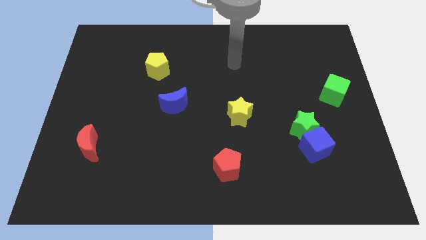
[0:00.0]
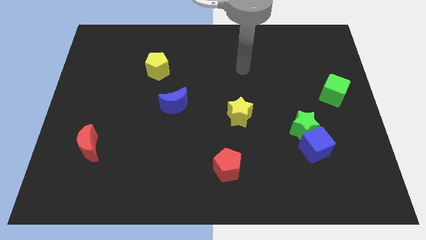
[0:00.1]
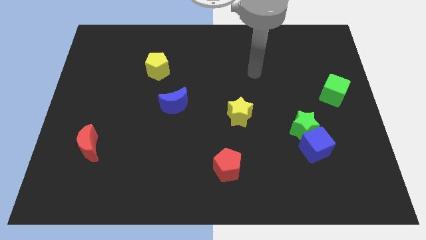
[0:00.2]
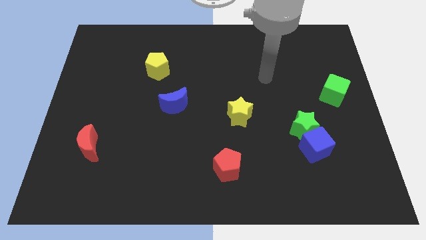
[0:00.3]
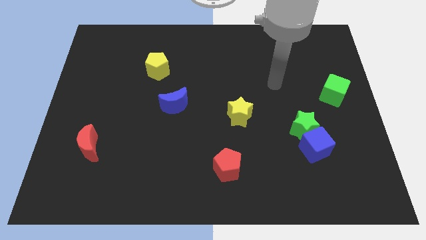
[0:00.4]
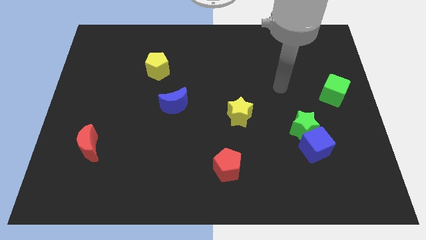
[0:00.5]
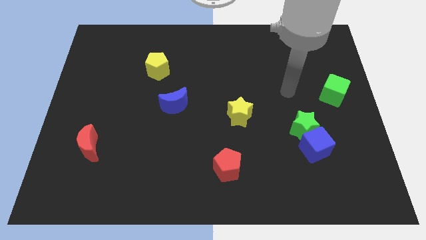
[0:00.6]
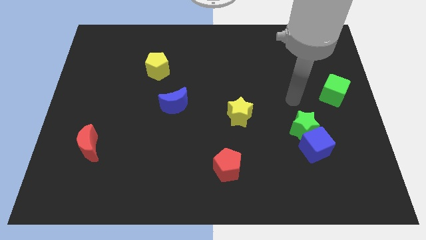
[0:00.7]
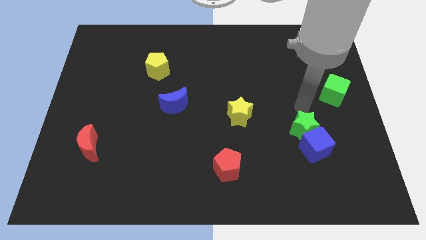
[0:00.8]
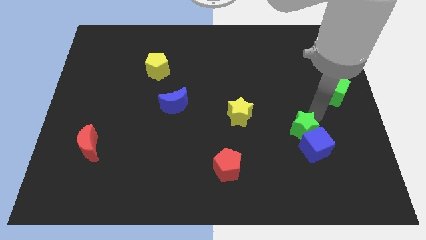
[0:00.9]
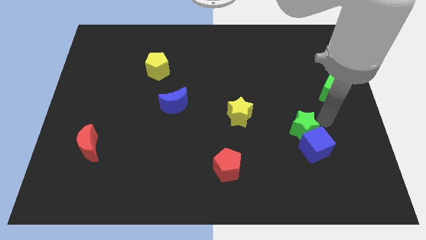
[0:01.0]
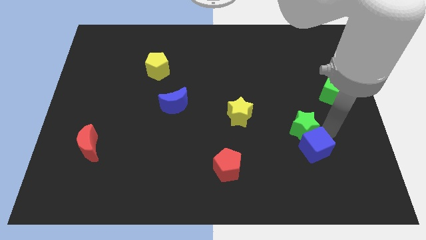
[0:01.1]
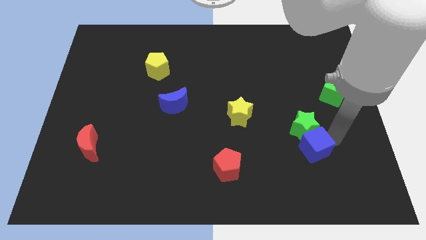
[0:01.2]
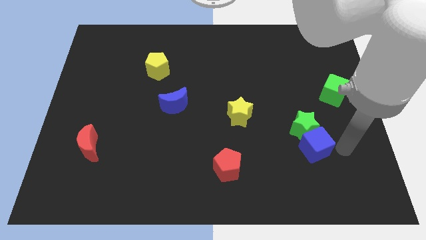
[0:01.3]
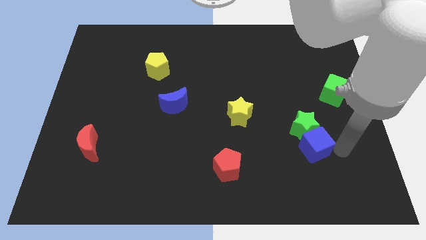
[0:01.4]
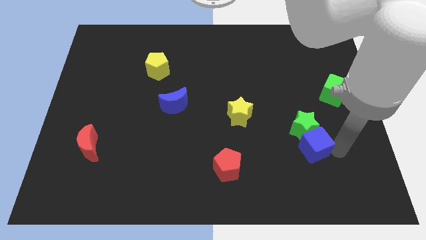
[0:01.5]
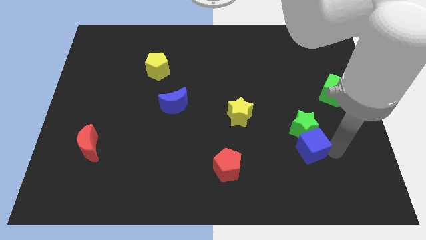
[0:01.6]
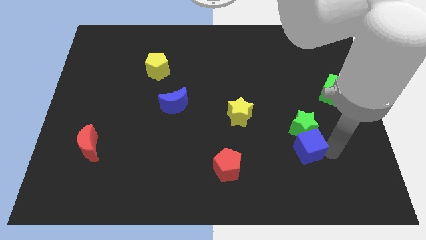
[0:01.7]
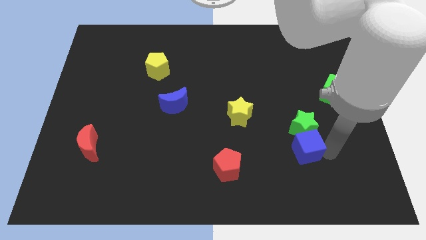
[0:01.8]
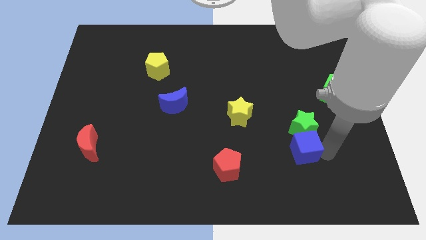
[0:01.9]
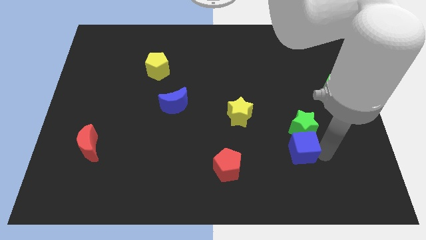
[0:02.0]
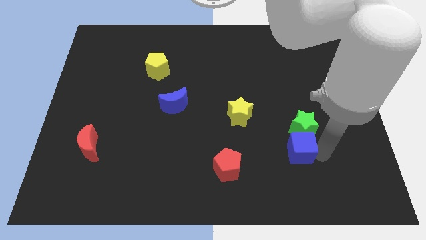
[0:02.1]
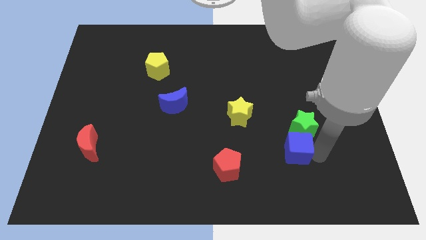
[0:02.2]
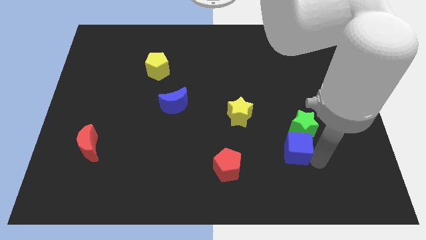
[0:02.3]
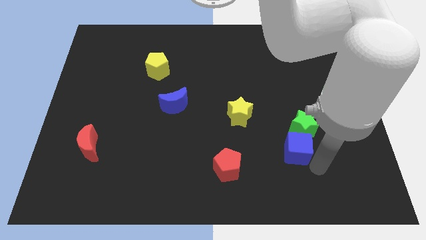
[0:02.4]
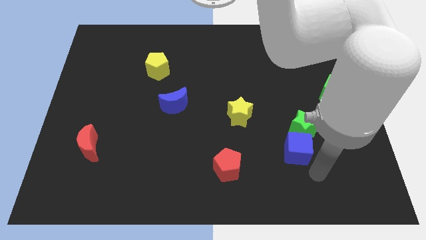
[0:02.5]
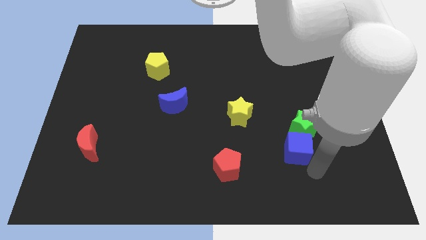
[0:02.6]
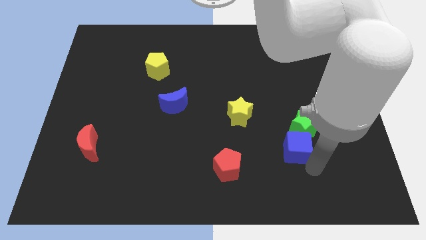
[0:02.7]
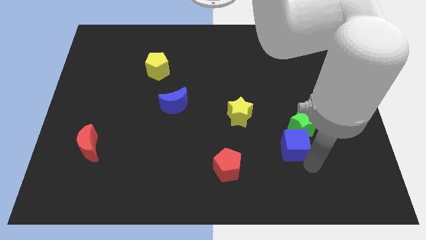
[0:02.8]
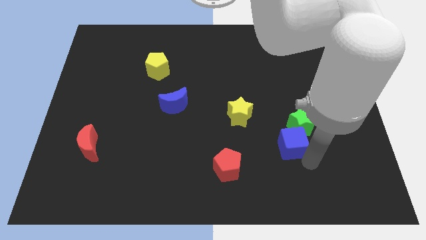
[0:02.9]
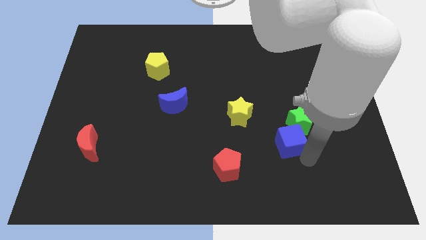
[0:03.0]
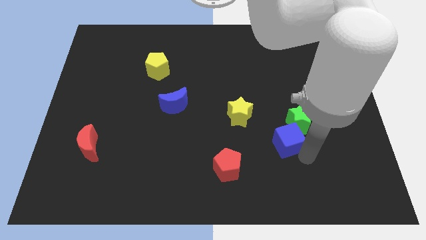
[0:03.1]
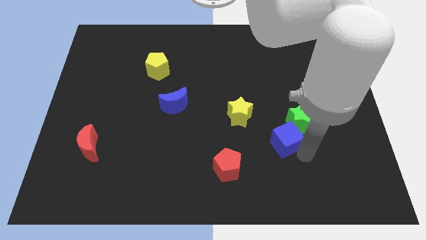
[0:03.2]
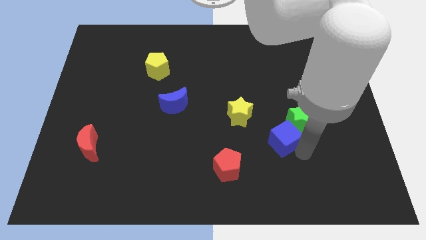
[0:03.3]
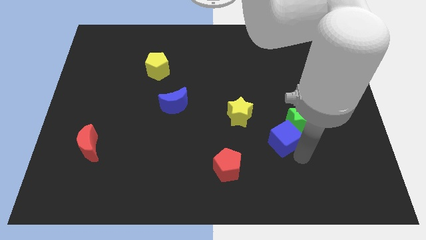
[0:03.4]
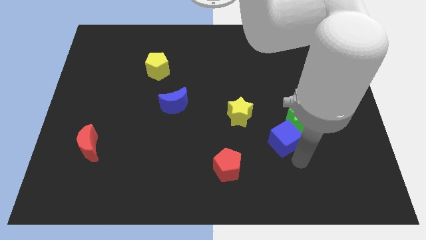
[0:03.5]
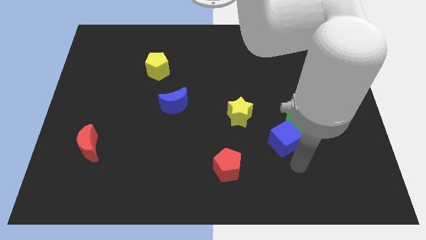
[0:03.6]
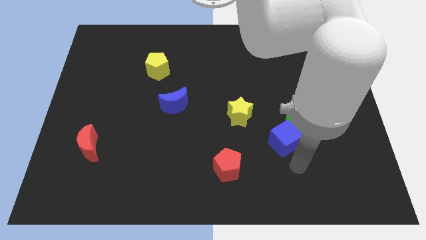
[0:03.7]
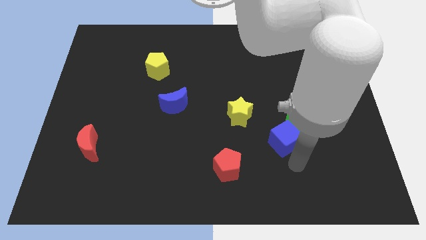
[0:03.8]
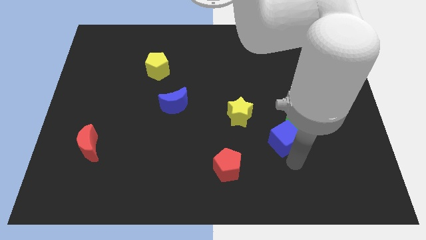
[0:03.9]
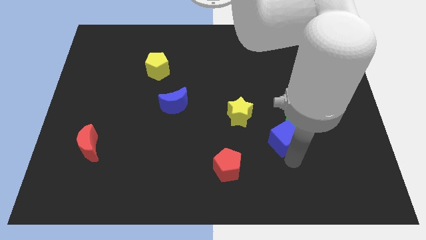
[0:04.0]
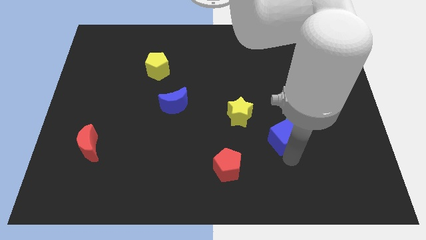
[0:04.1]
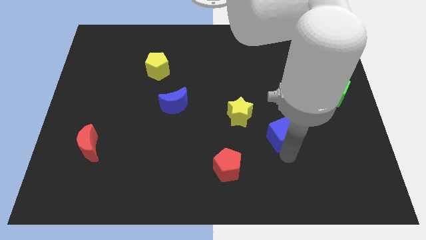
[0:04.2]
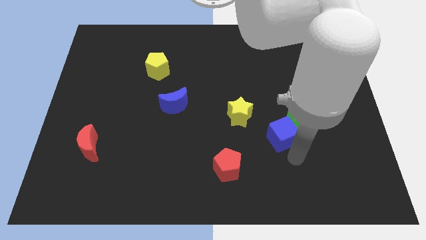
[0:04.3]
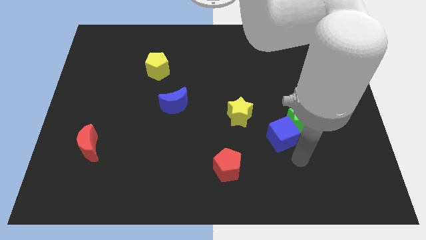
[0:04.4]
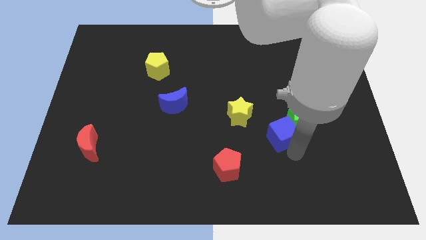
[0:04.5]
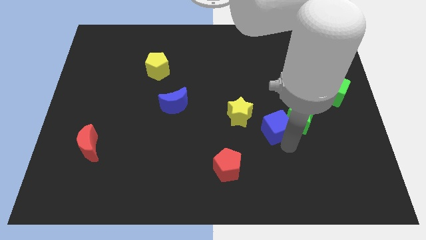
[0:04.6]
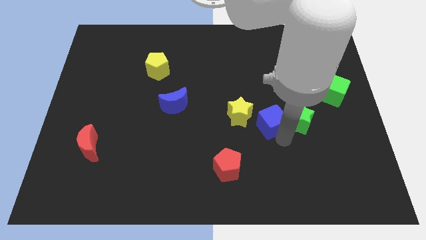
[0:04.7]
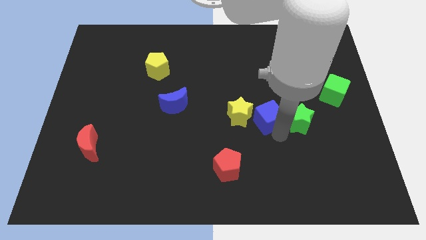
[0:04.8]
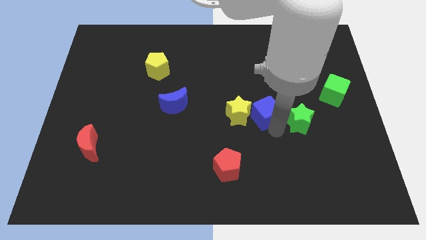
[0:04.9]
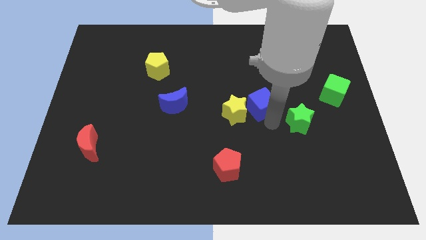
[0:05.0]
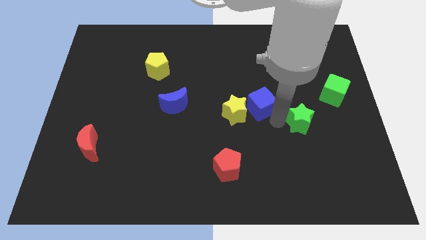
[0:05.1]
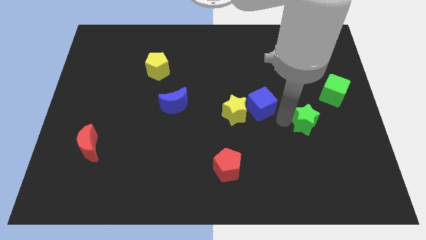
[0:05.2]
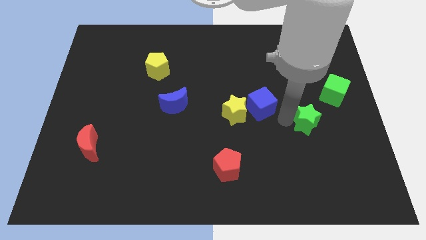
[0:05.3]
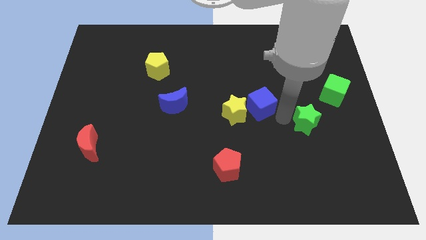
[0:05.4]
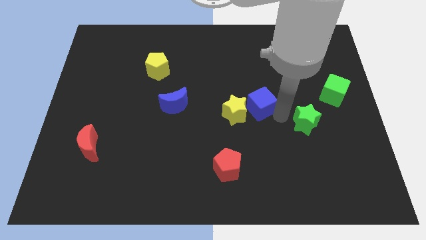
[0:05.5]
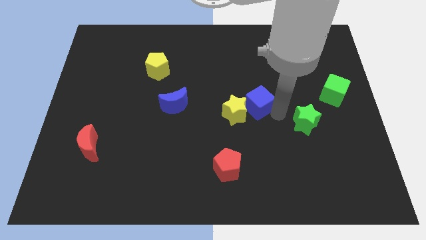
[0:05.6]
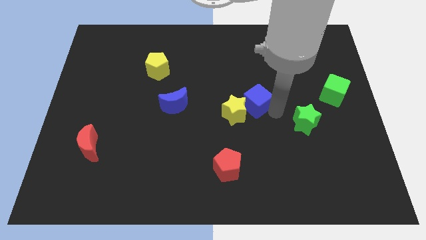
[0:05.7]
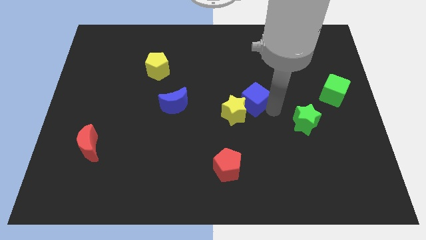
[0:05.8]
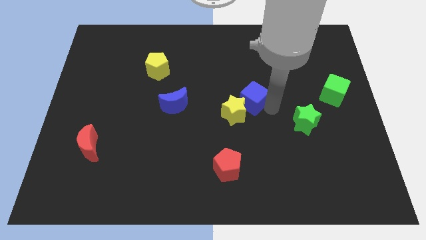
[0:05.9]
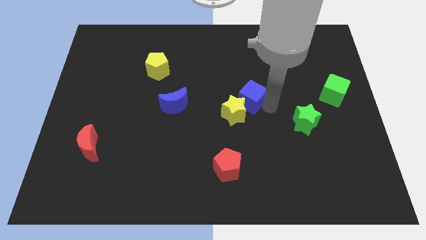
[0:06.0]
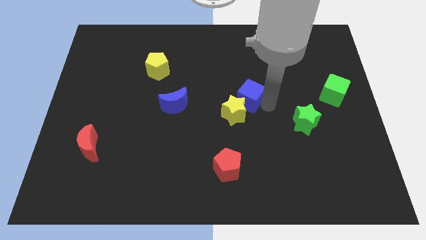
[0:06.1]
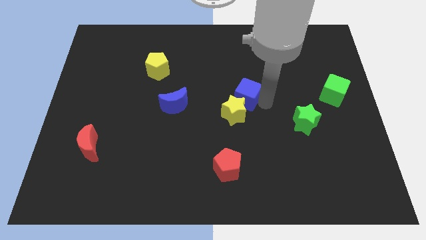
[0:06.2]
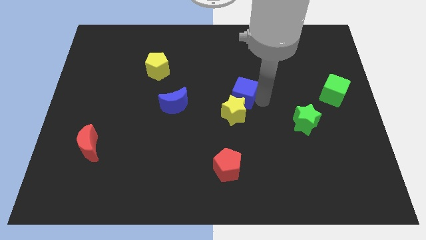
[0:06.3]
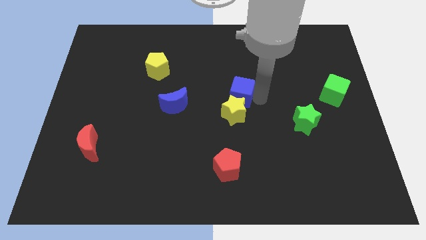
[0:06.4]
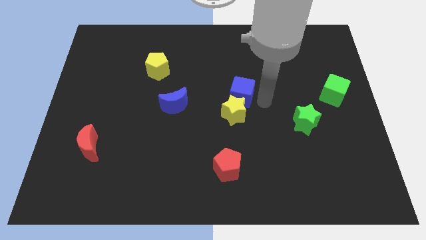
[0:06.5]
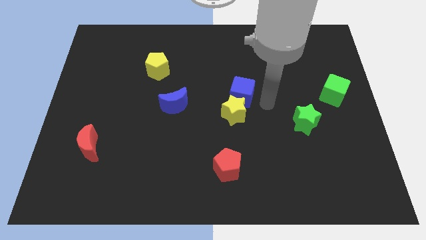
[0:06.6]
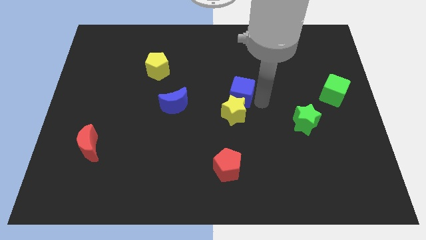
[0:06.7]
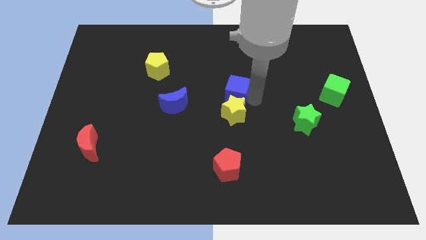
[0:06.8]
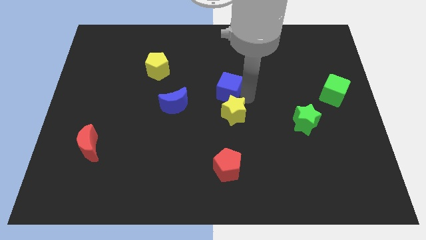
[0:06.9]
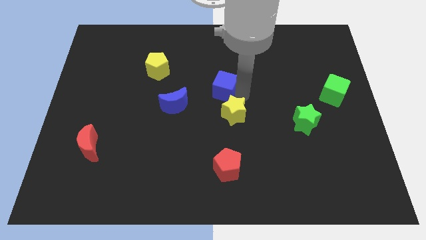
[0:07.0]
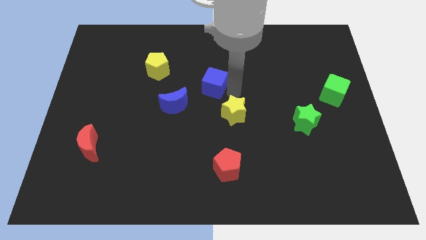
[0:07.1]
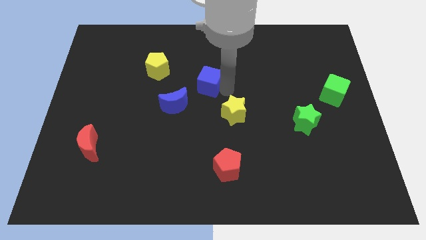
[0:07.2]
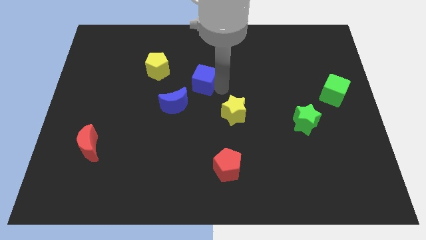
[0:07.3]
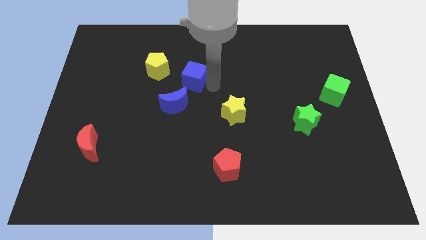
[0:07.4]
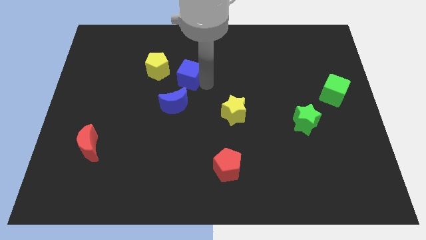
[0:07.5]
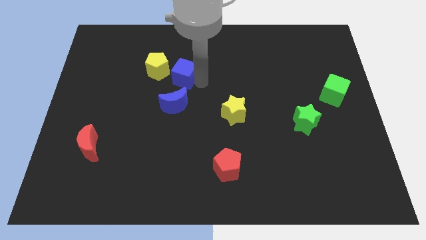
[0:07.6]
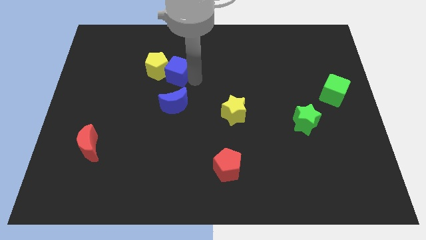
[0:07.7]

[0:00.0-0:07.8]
slide the blue cube to the yellow pentagon
